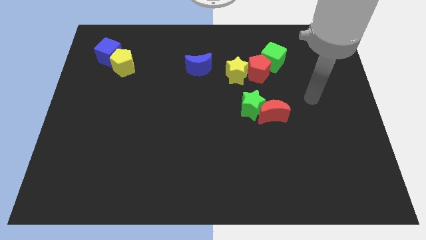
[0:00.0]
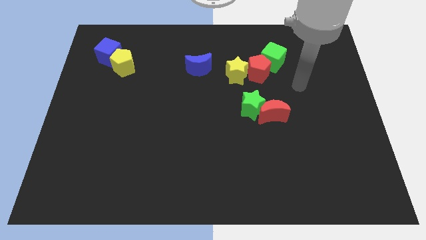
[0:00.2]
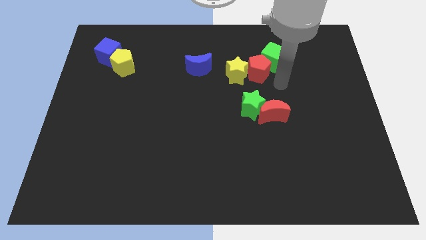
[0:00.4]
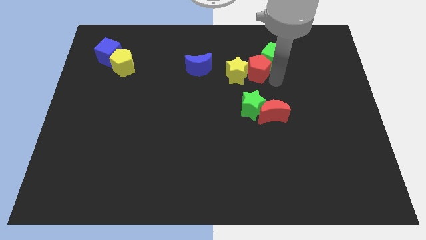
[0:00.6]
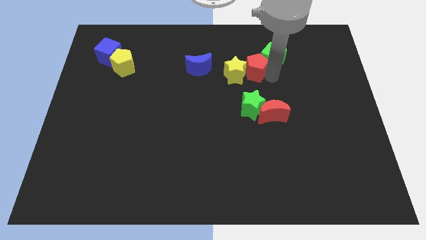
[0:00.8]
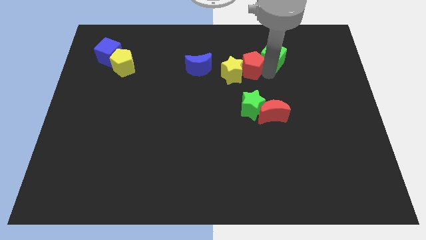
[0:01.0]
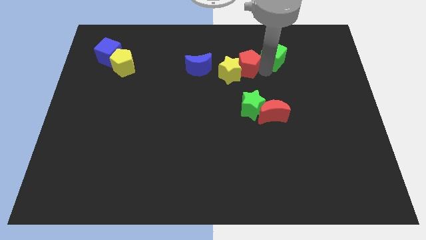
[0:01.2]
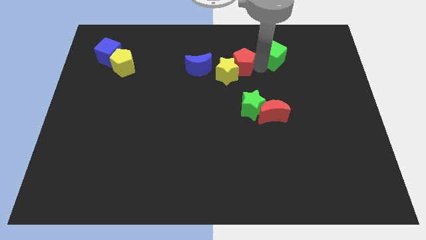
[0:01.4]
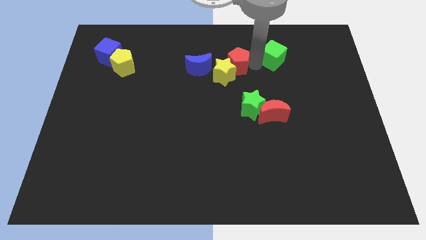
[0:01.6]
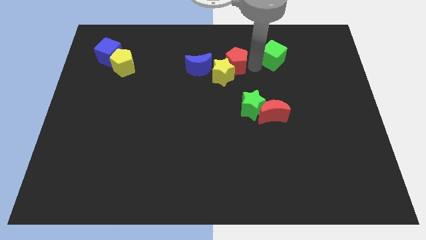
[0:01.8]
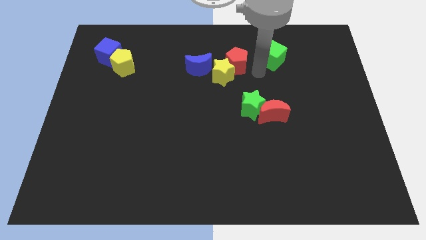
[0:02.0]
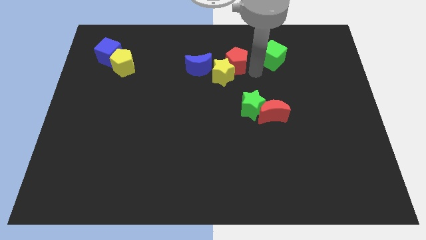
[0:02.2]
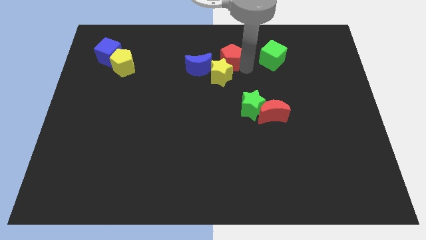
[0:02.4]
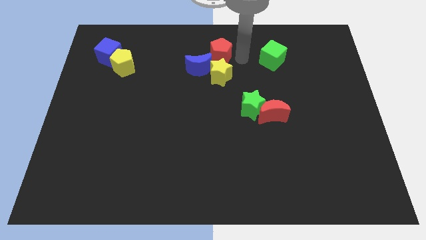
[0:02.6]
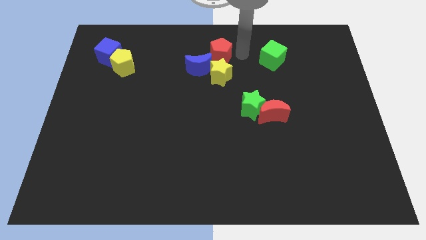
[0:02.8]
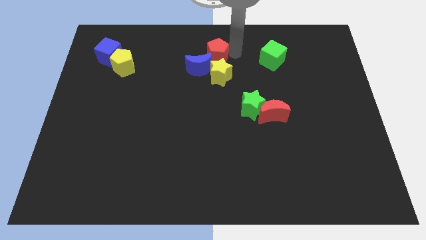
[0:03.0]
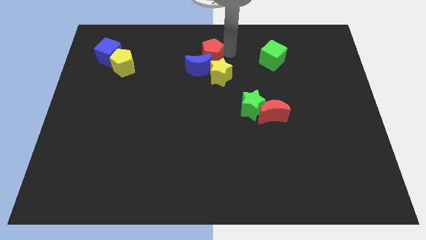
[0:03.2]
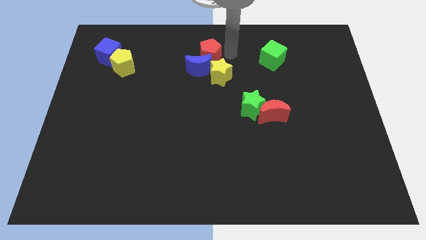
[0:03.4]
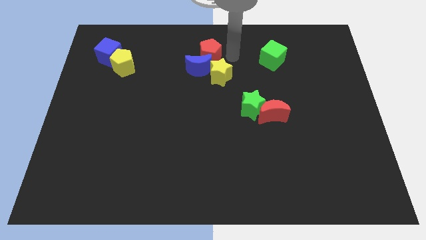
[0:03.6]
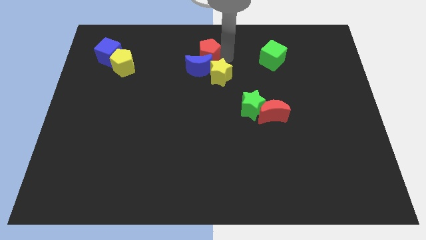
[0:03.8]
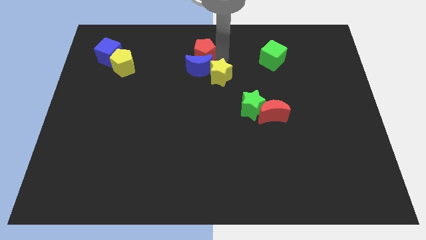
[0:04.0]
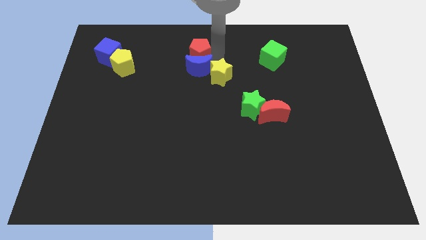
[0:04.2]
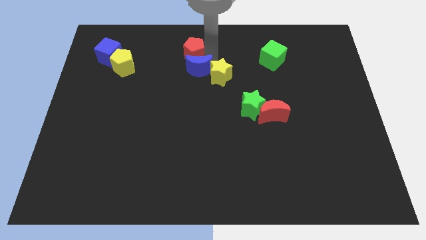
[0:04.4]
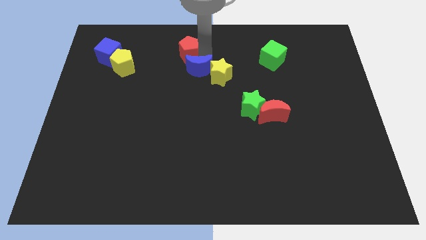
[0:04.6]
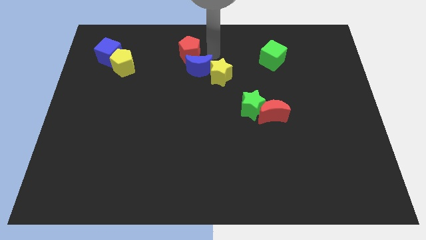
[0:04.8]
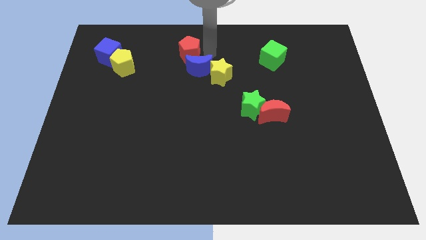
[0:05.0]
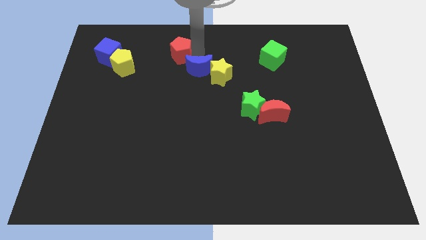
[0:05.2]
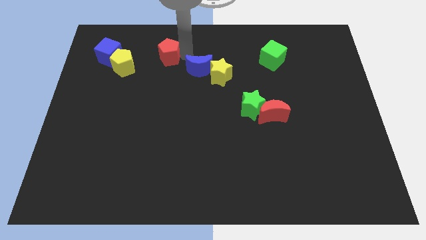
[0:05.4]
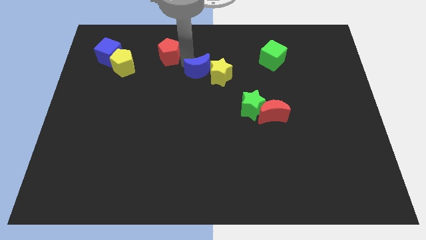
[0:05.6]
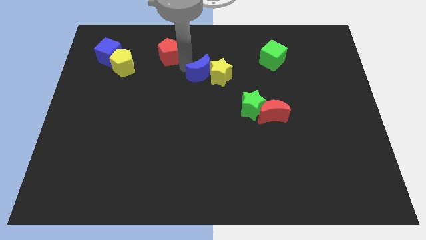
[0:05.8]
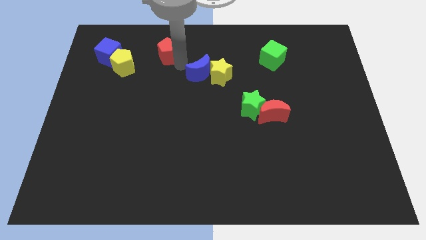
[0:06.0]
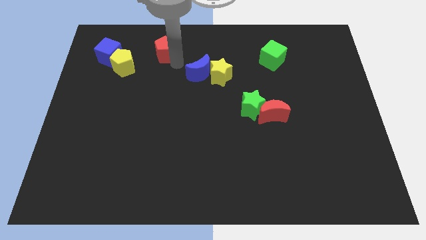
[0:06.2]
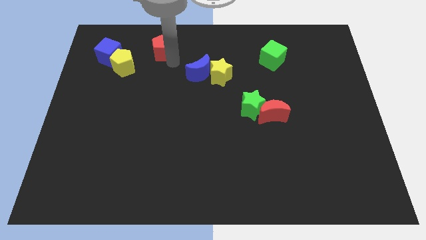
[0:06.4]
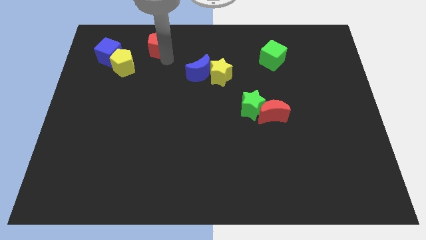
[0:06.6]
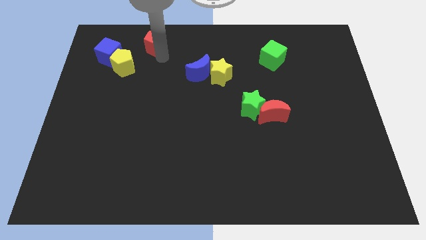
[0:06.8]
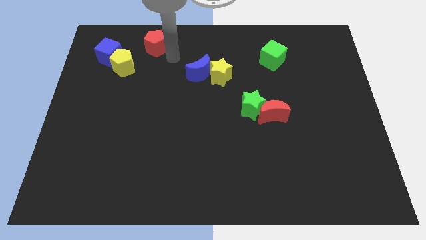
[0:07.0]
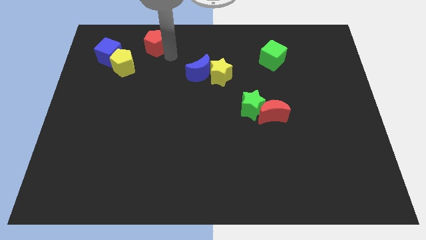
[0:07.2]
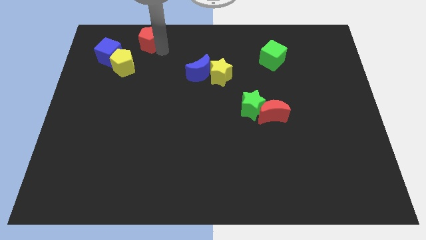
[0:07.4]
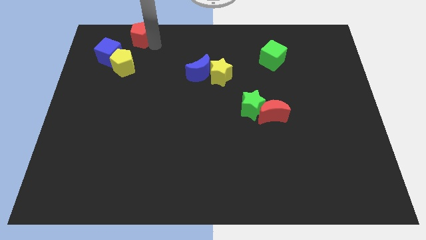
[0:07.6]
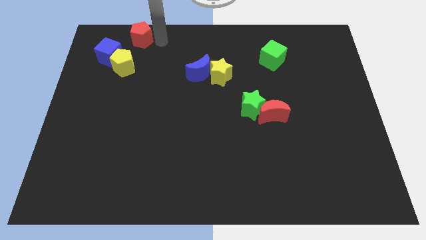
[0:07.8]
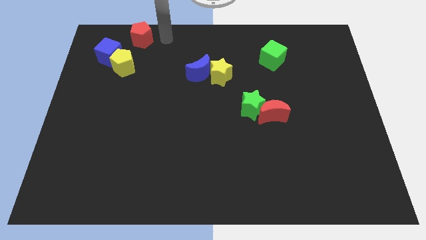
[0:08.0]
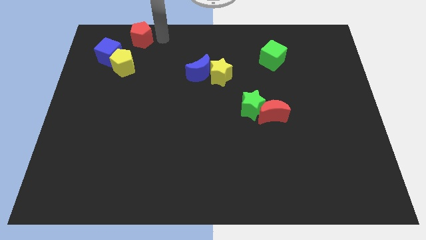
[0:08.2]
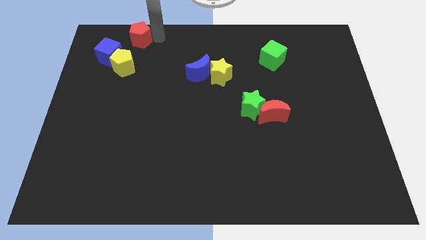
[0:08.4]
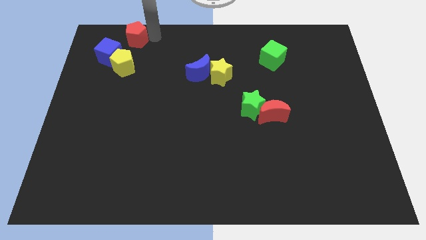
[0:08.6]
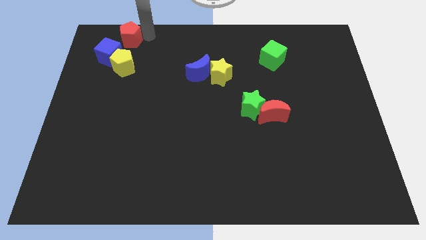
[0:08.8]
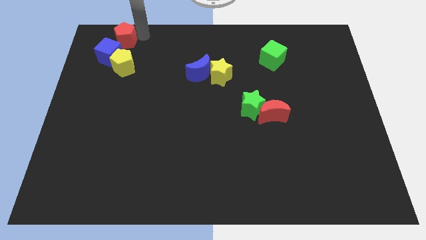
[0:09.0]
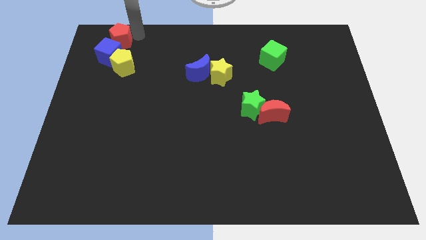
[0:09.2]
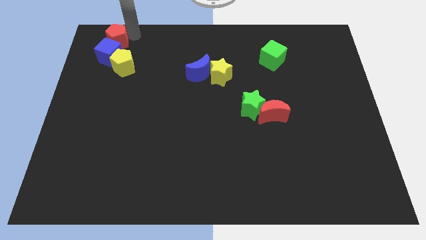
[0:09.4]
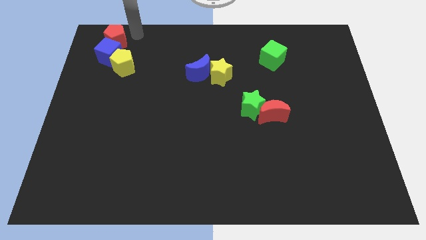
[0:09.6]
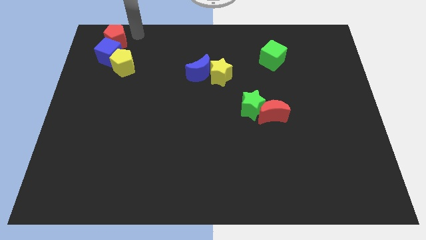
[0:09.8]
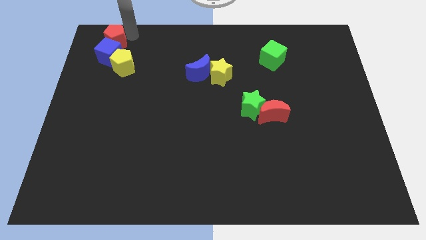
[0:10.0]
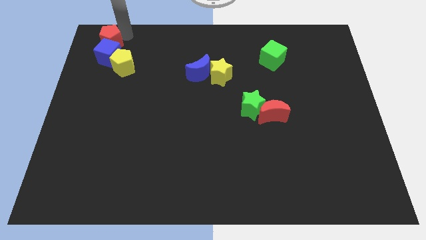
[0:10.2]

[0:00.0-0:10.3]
push the red pentagon to the upper left corner

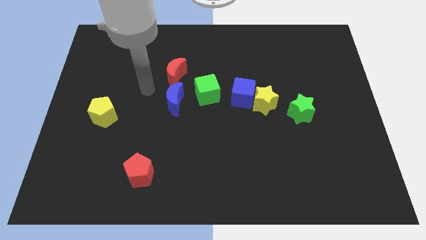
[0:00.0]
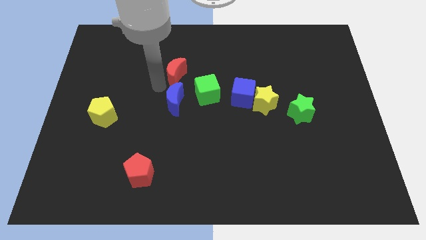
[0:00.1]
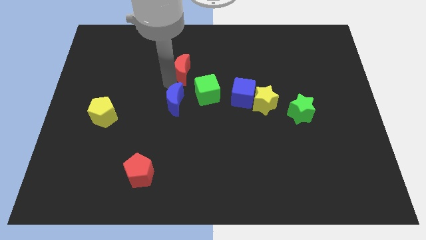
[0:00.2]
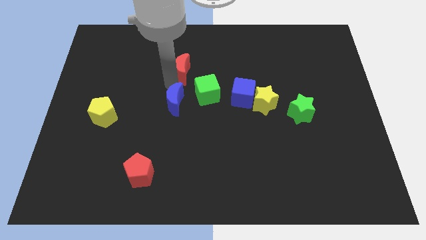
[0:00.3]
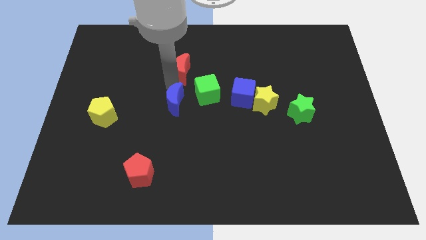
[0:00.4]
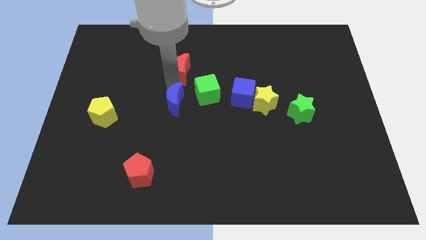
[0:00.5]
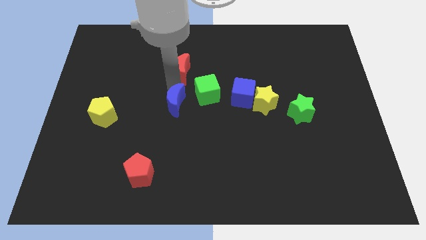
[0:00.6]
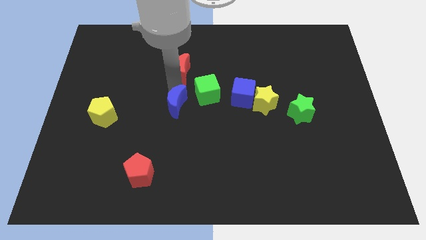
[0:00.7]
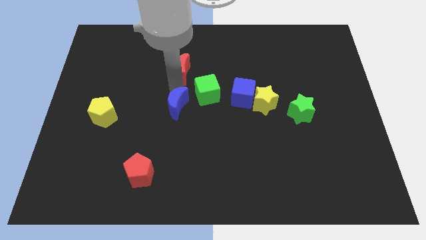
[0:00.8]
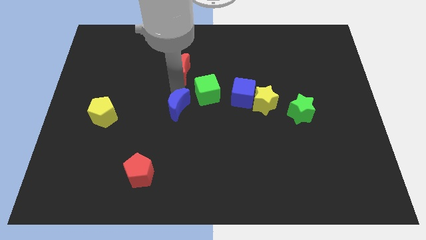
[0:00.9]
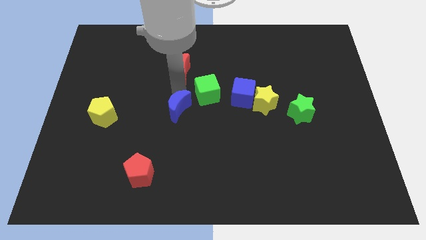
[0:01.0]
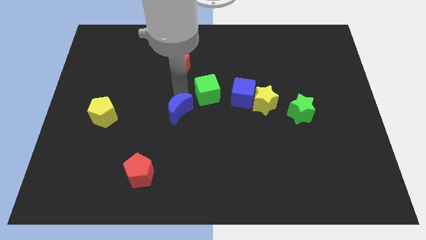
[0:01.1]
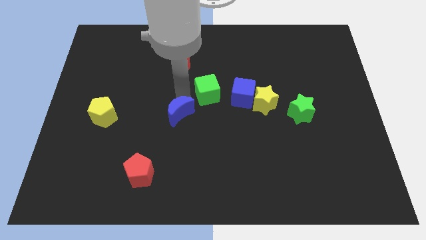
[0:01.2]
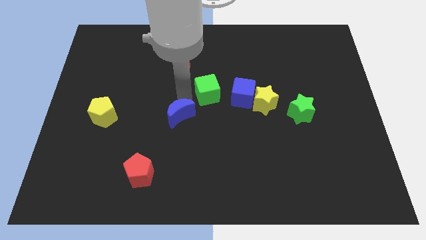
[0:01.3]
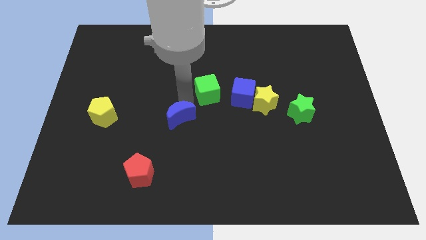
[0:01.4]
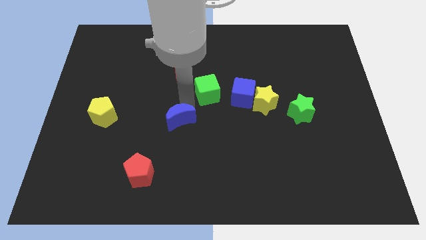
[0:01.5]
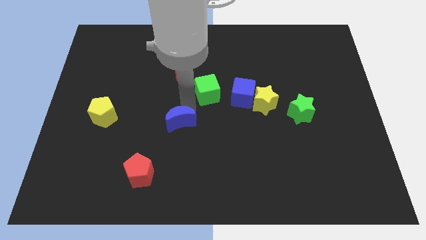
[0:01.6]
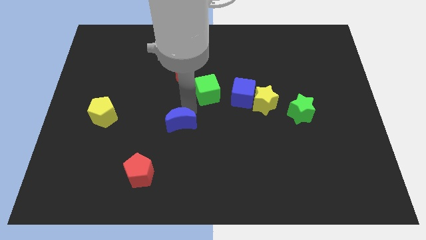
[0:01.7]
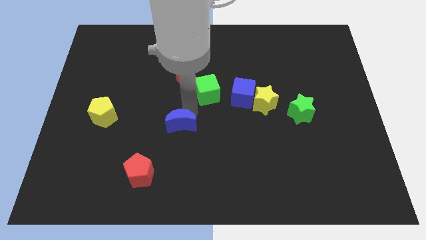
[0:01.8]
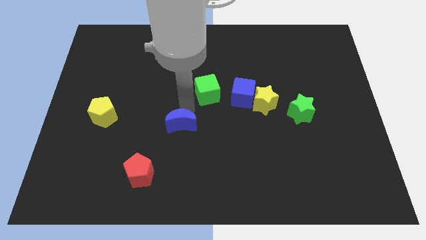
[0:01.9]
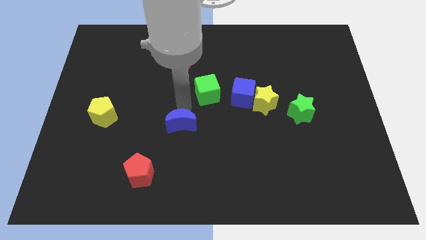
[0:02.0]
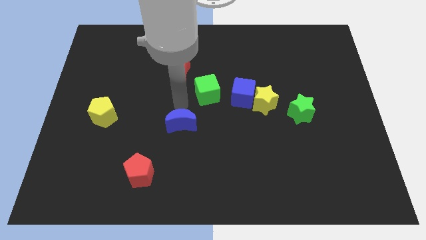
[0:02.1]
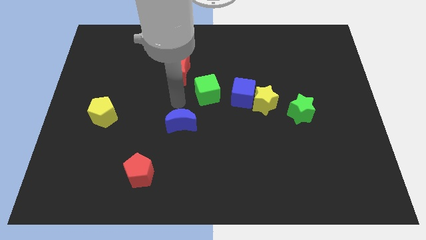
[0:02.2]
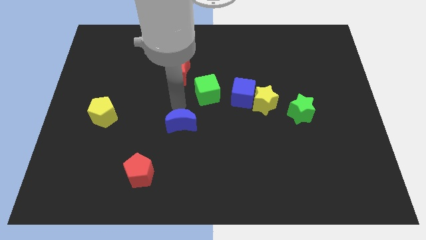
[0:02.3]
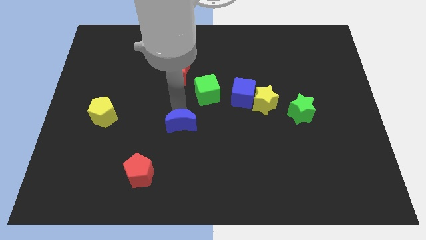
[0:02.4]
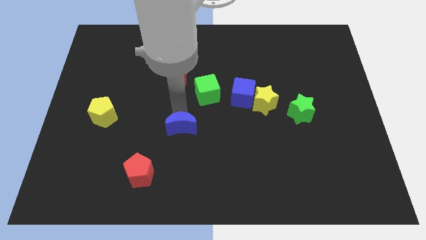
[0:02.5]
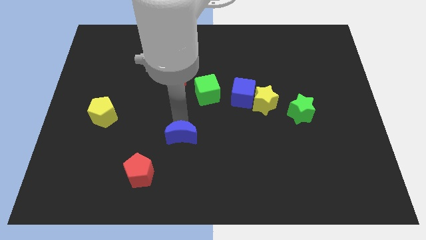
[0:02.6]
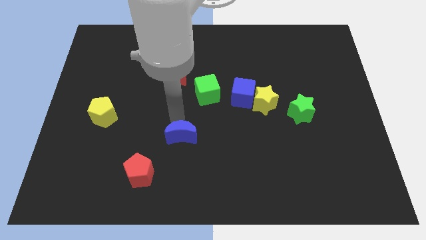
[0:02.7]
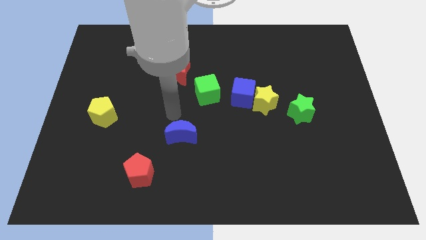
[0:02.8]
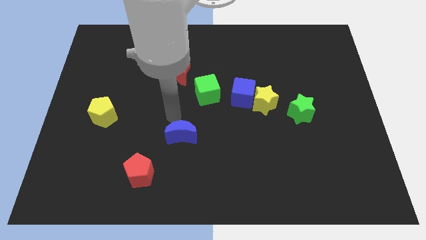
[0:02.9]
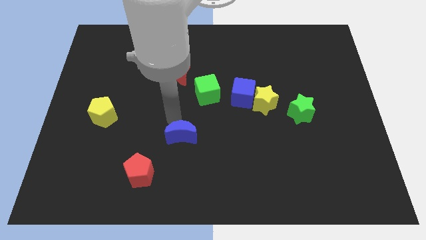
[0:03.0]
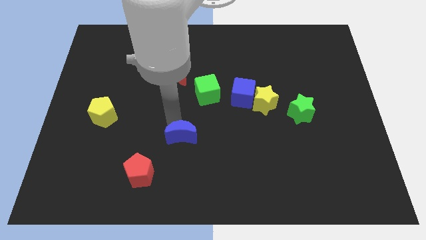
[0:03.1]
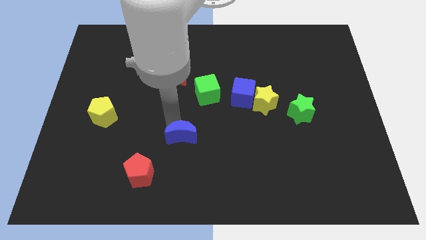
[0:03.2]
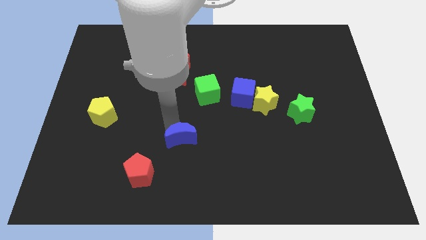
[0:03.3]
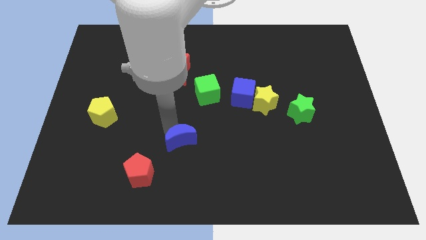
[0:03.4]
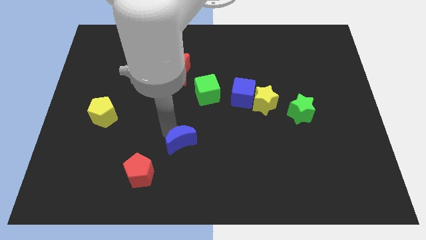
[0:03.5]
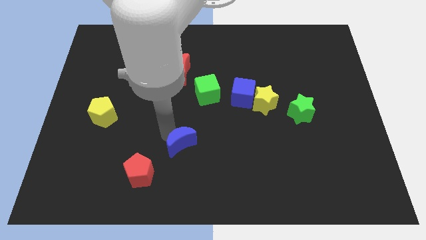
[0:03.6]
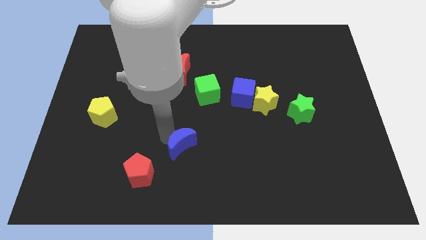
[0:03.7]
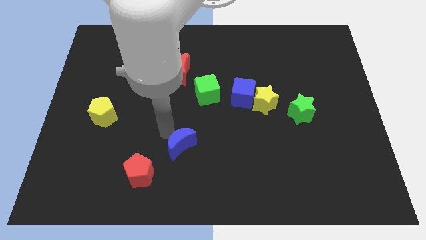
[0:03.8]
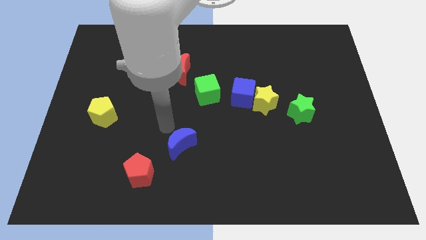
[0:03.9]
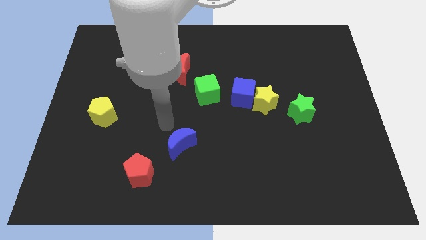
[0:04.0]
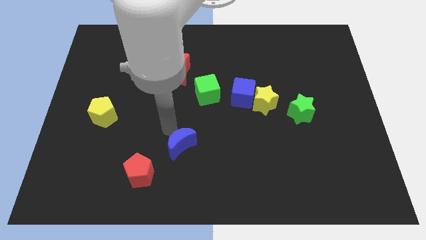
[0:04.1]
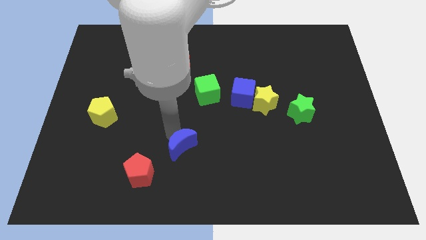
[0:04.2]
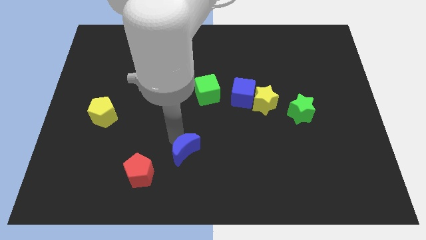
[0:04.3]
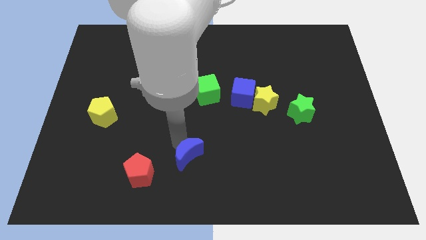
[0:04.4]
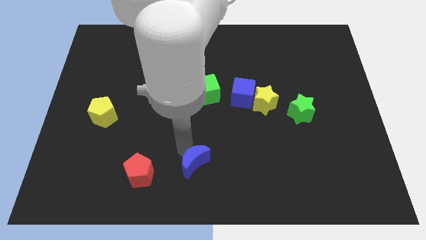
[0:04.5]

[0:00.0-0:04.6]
slide the blue moon to the bottom
